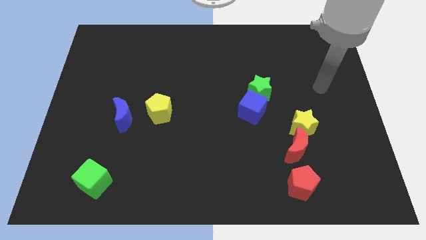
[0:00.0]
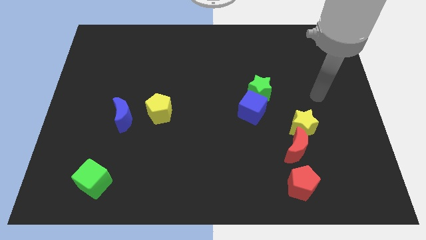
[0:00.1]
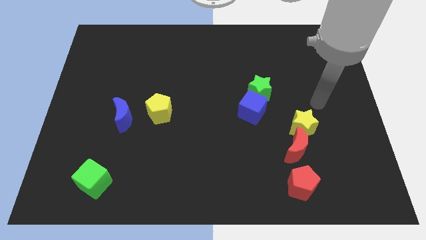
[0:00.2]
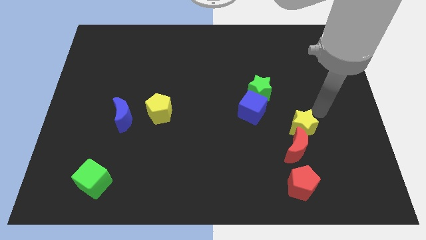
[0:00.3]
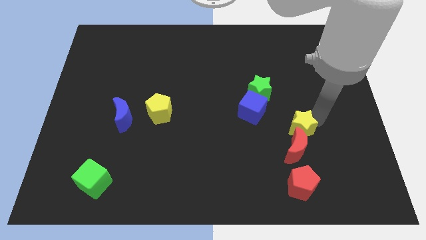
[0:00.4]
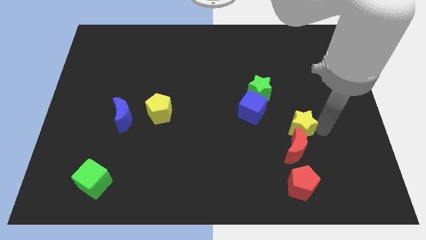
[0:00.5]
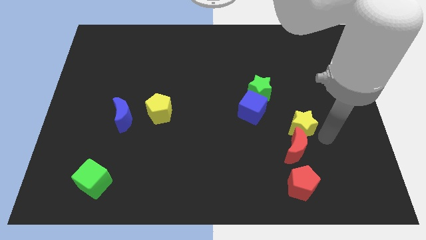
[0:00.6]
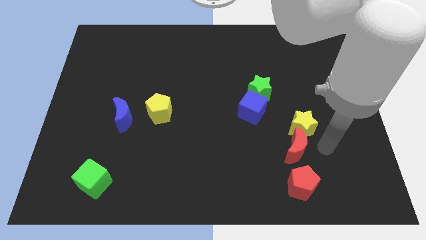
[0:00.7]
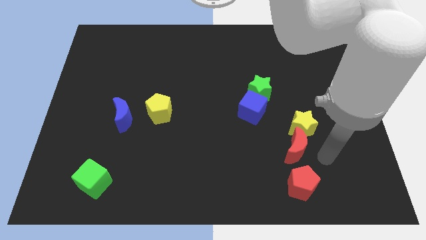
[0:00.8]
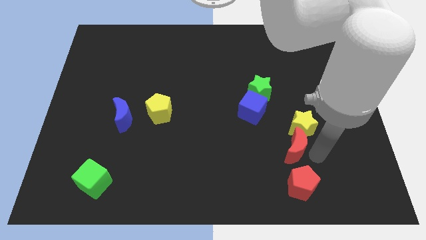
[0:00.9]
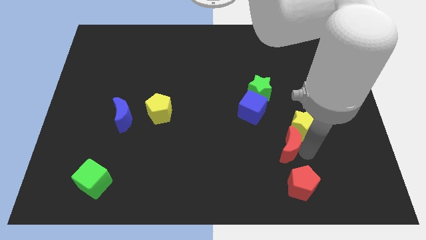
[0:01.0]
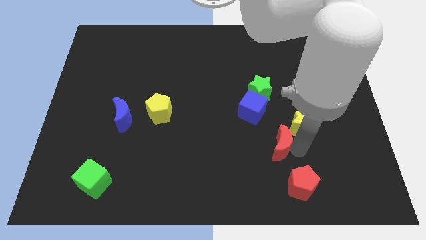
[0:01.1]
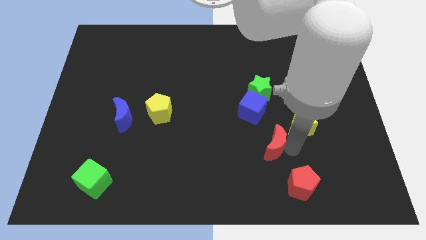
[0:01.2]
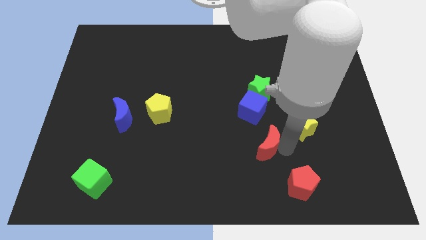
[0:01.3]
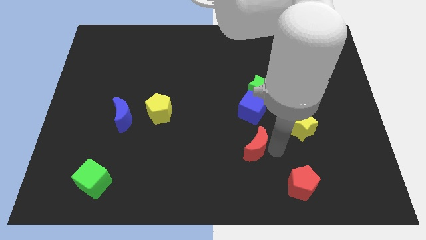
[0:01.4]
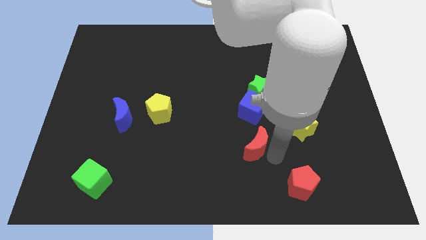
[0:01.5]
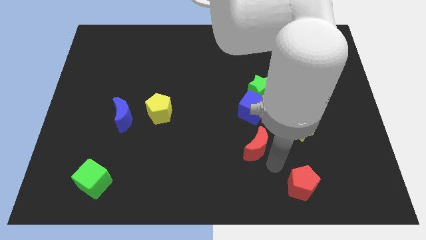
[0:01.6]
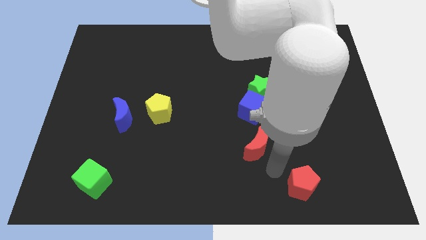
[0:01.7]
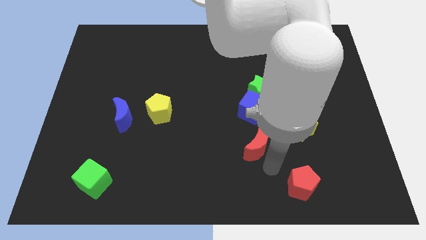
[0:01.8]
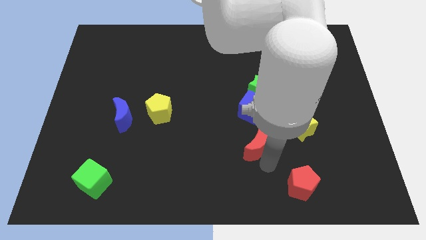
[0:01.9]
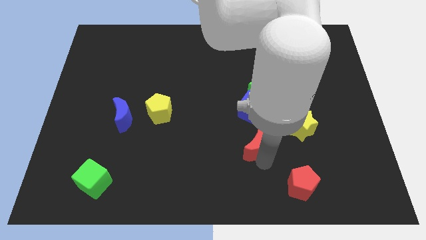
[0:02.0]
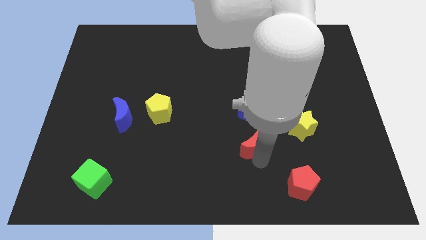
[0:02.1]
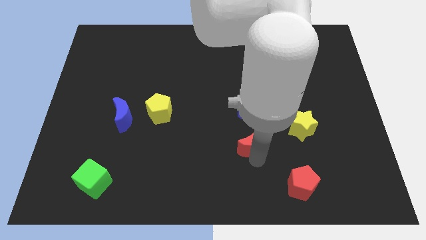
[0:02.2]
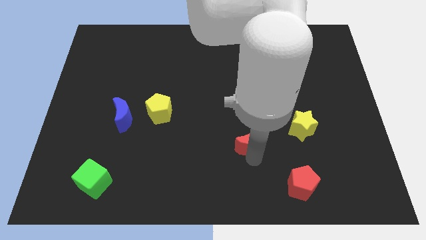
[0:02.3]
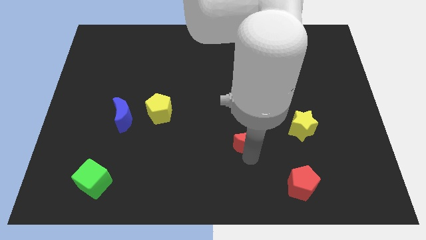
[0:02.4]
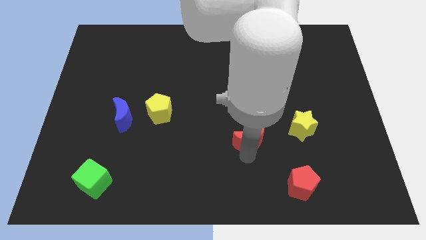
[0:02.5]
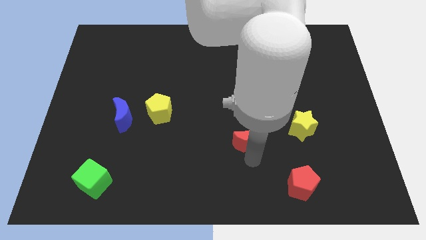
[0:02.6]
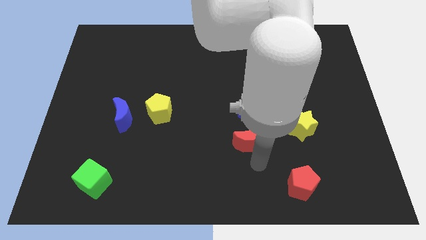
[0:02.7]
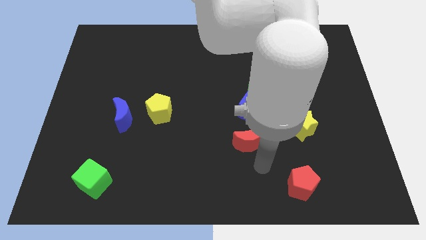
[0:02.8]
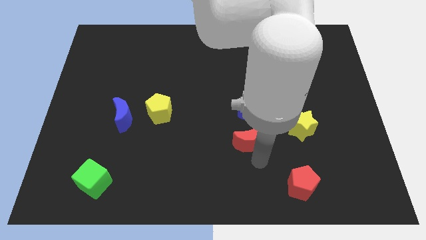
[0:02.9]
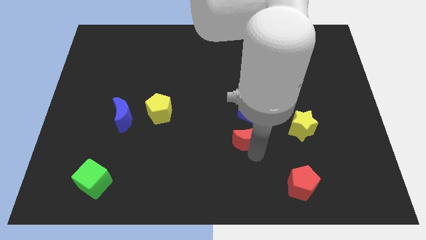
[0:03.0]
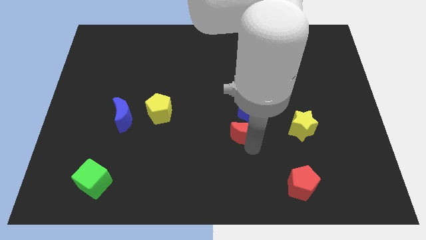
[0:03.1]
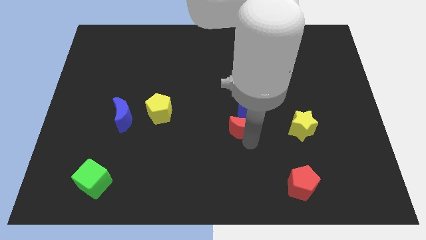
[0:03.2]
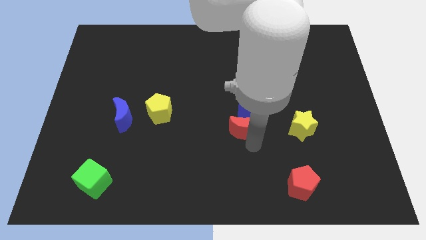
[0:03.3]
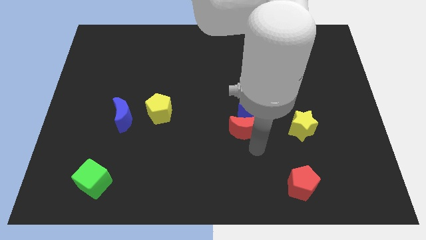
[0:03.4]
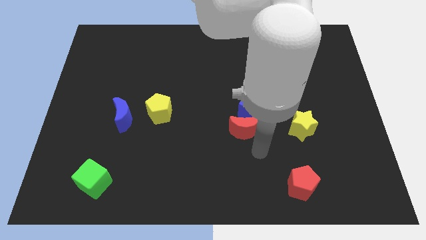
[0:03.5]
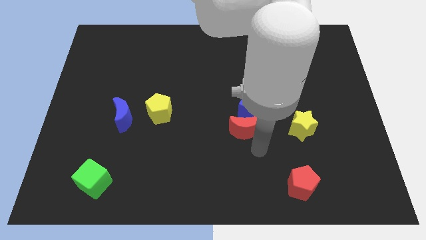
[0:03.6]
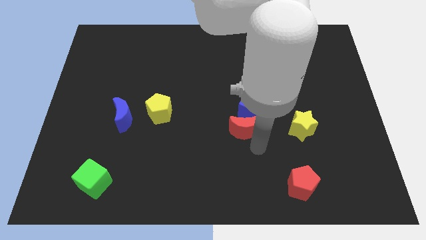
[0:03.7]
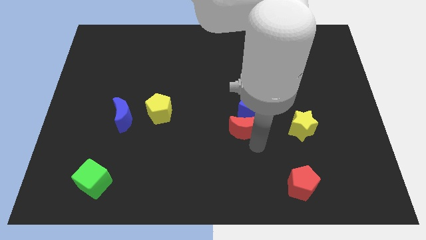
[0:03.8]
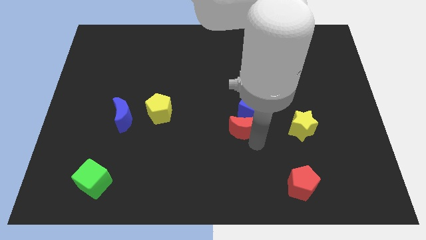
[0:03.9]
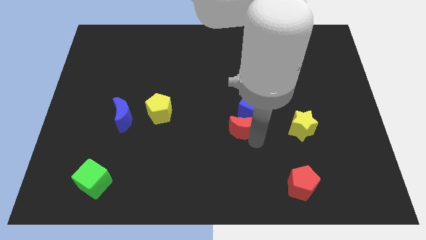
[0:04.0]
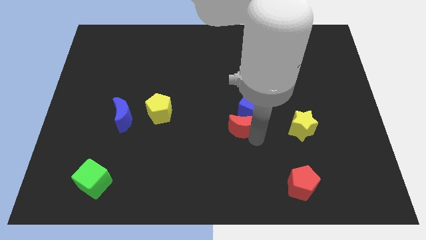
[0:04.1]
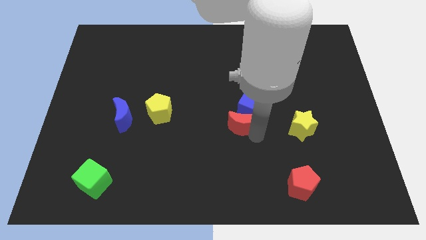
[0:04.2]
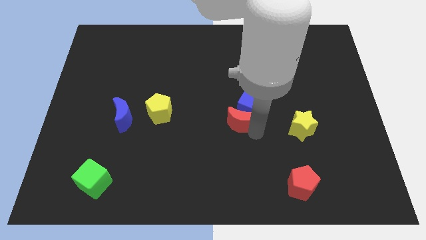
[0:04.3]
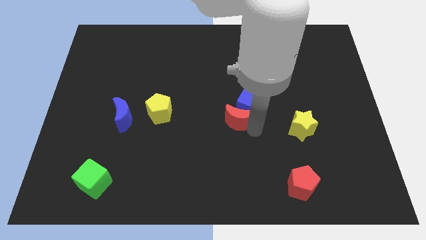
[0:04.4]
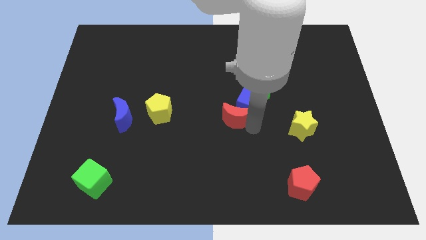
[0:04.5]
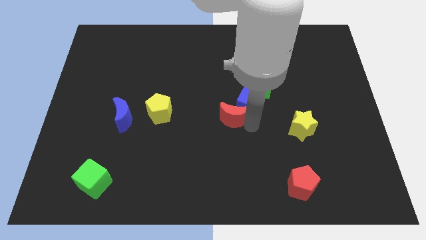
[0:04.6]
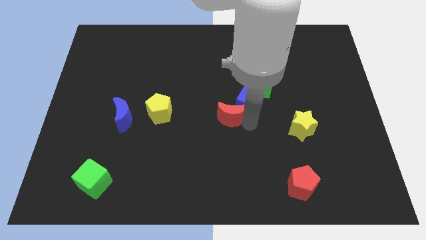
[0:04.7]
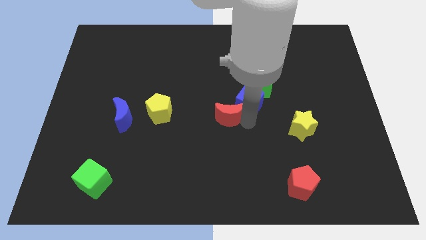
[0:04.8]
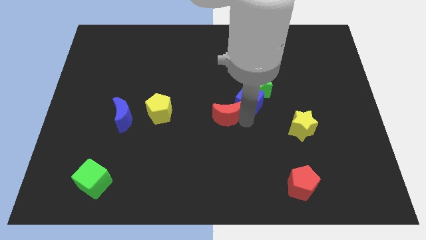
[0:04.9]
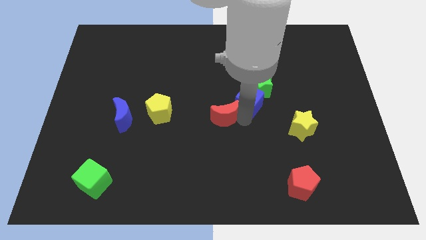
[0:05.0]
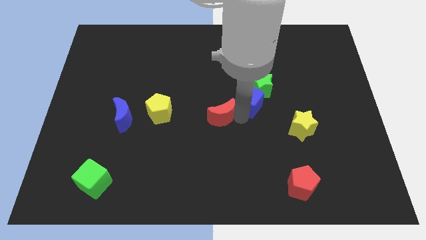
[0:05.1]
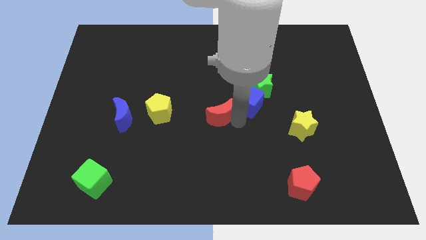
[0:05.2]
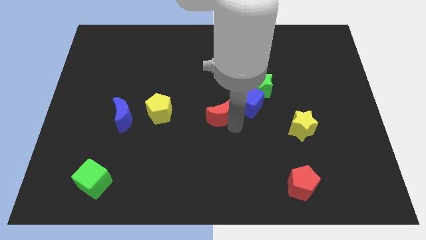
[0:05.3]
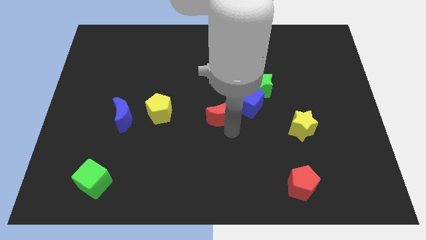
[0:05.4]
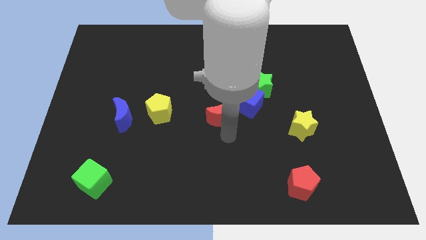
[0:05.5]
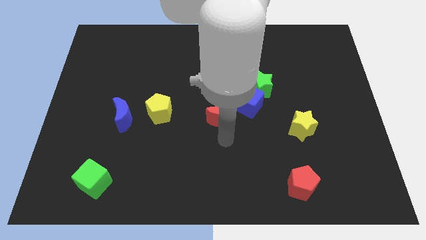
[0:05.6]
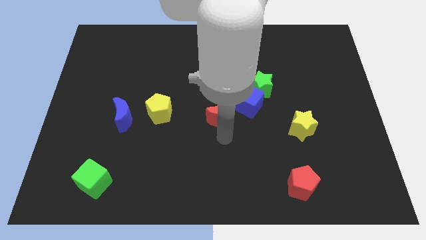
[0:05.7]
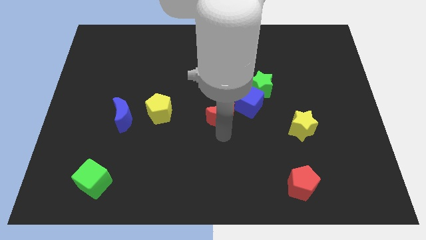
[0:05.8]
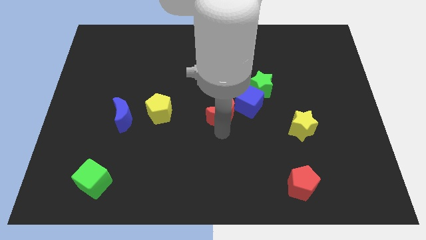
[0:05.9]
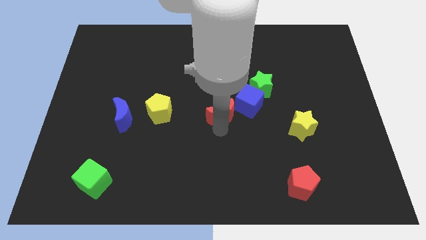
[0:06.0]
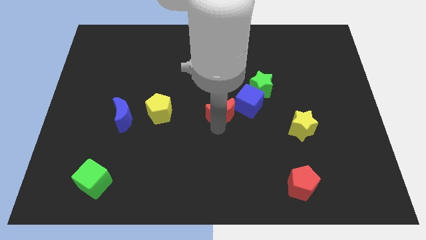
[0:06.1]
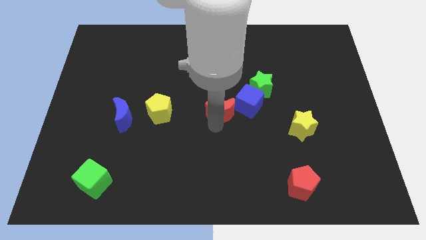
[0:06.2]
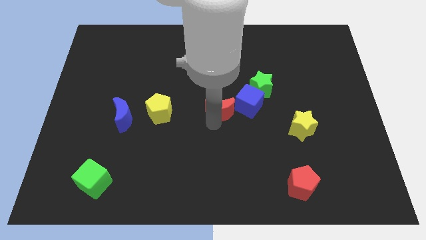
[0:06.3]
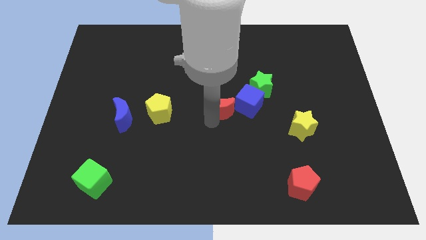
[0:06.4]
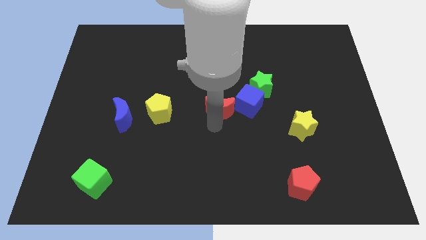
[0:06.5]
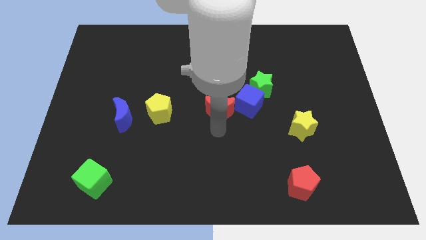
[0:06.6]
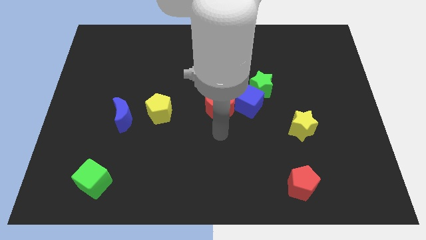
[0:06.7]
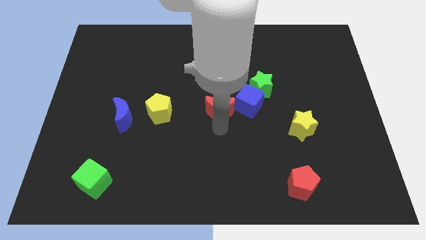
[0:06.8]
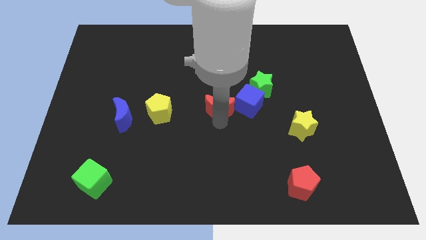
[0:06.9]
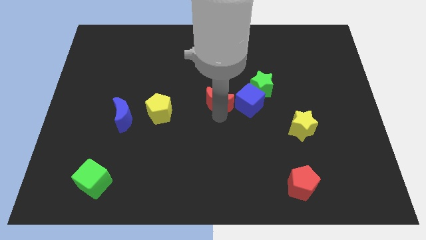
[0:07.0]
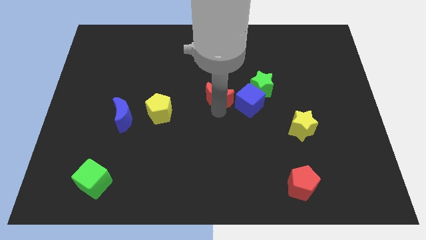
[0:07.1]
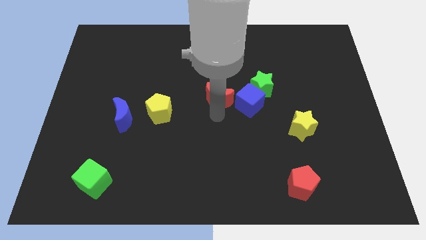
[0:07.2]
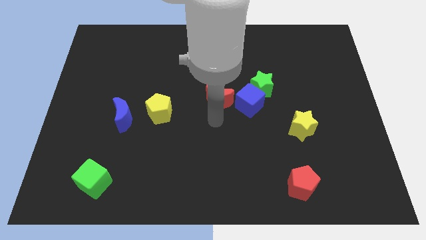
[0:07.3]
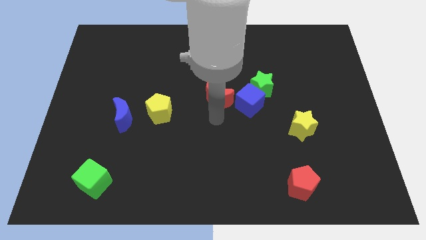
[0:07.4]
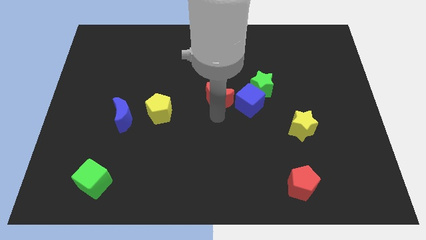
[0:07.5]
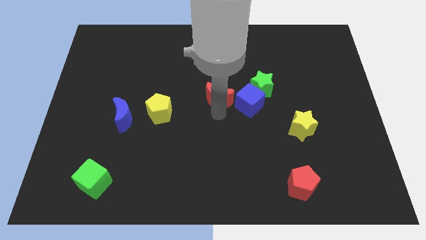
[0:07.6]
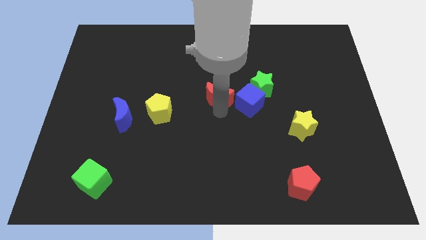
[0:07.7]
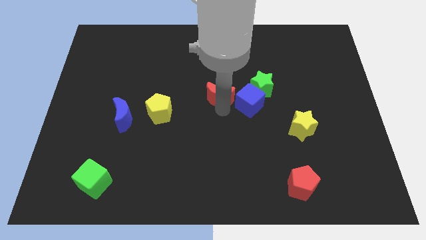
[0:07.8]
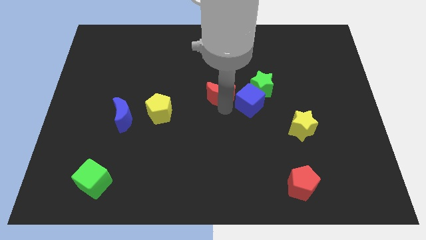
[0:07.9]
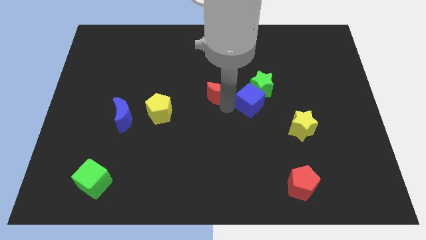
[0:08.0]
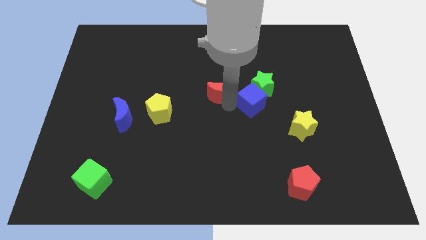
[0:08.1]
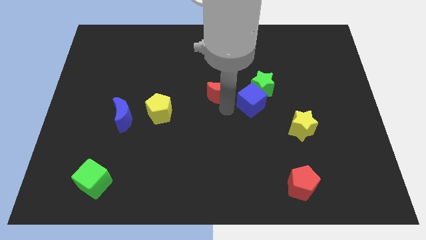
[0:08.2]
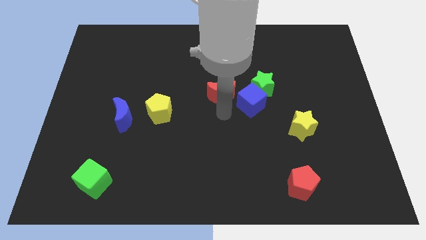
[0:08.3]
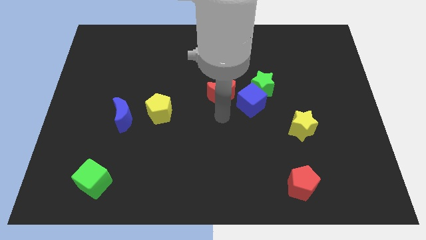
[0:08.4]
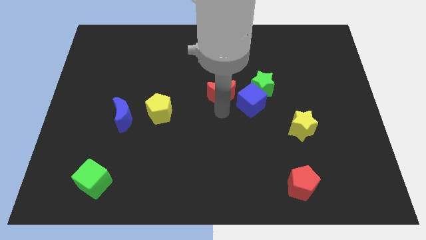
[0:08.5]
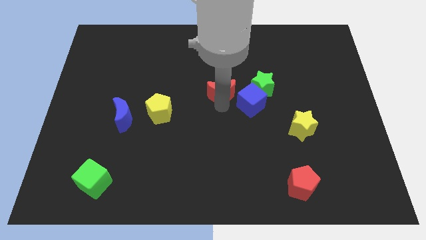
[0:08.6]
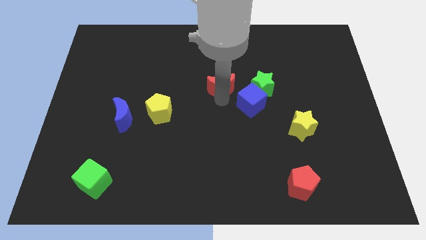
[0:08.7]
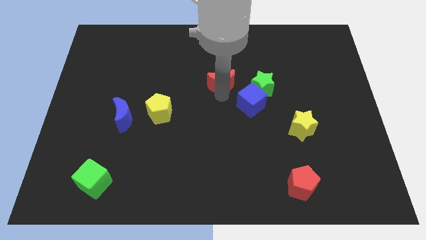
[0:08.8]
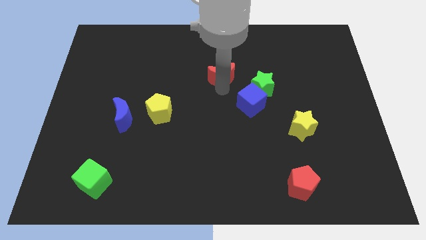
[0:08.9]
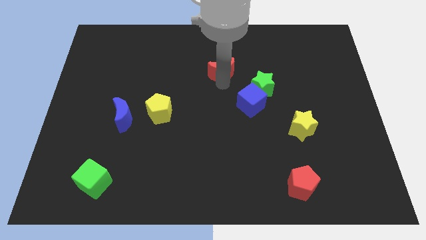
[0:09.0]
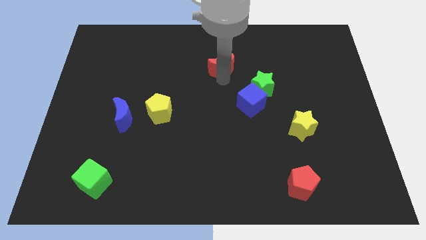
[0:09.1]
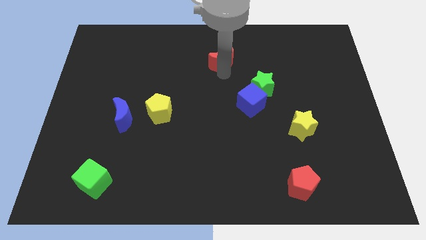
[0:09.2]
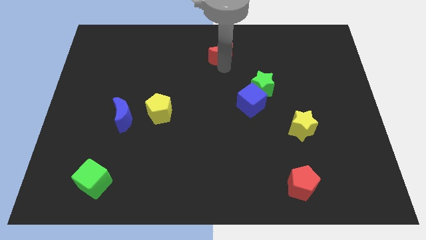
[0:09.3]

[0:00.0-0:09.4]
push the red moon to the top
